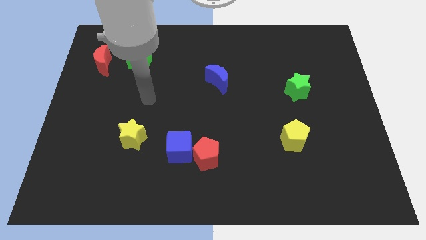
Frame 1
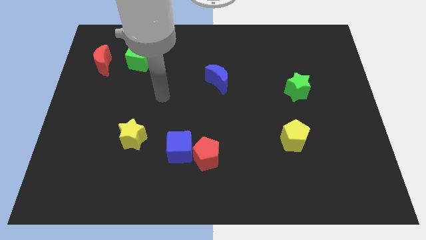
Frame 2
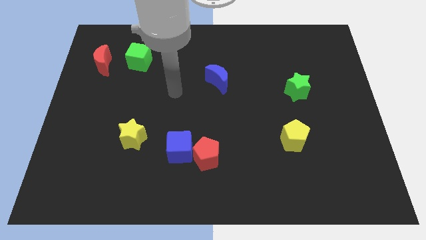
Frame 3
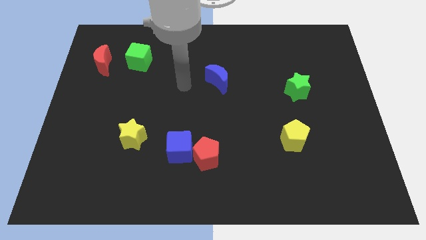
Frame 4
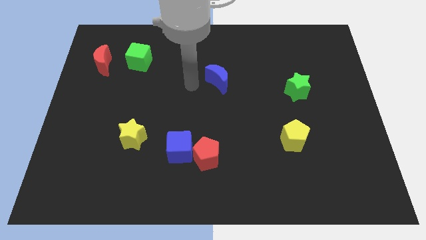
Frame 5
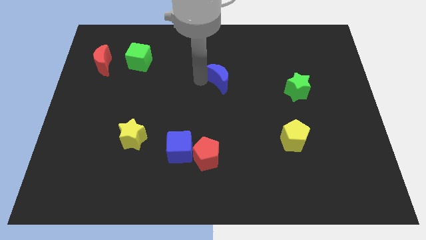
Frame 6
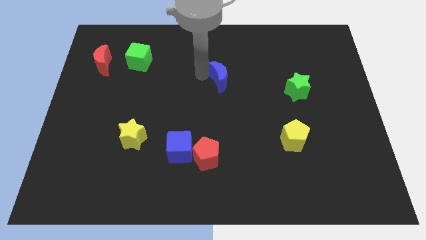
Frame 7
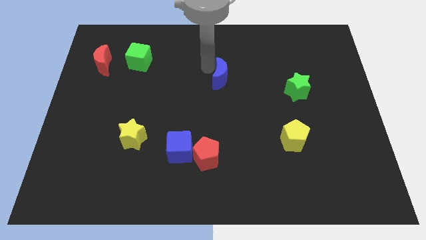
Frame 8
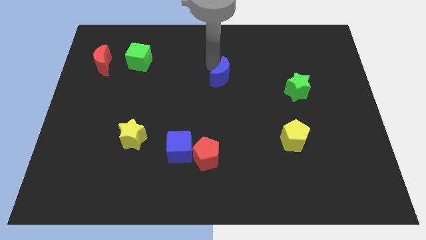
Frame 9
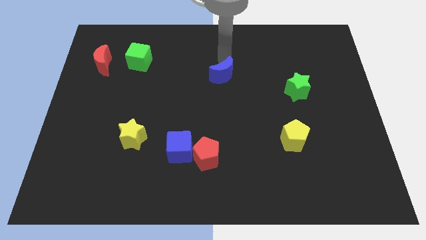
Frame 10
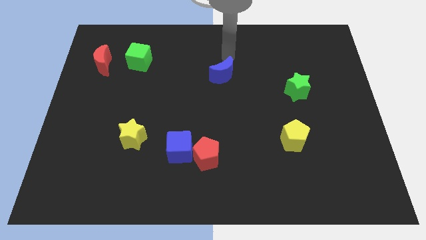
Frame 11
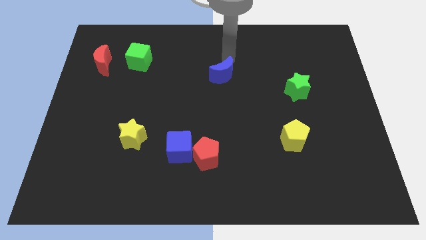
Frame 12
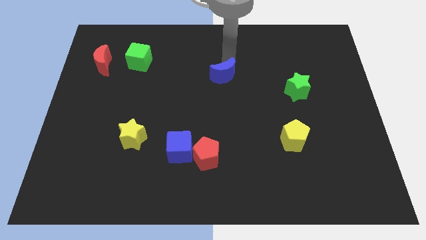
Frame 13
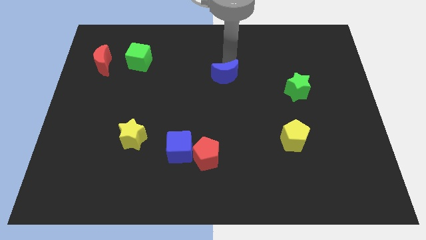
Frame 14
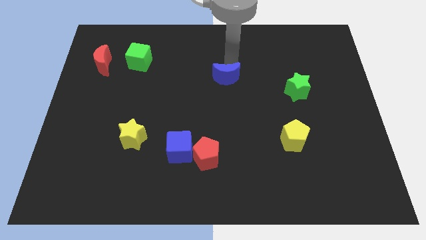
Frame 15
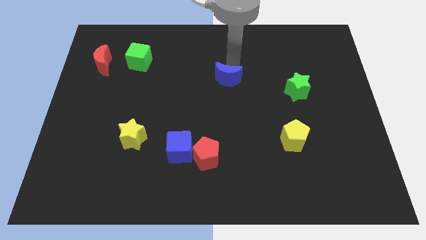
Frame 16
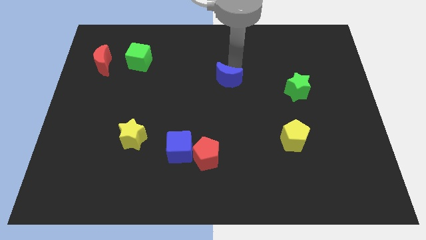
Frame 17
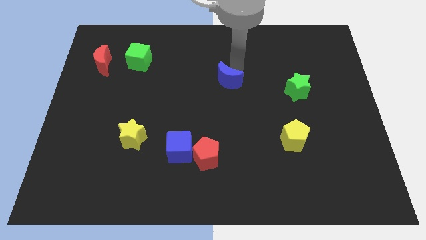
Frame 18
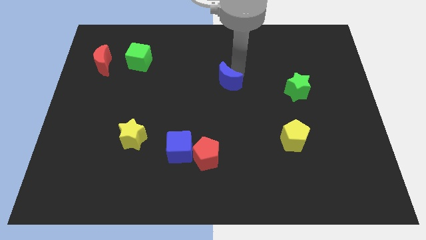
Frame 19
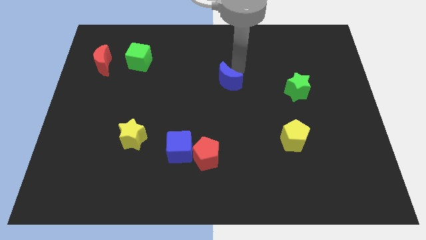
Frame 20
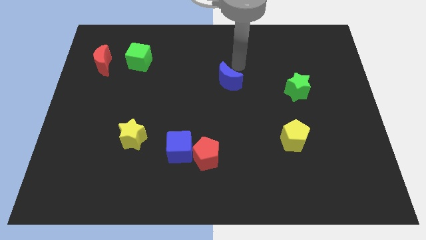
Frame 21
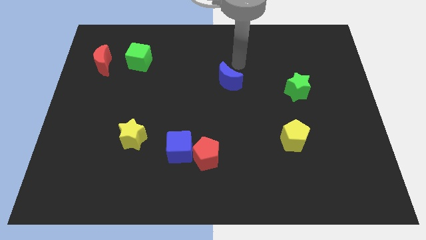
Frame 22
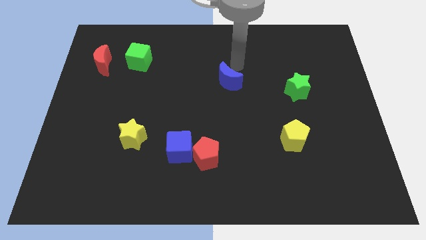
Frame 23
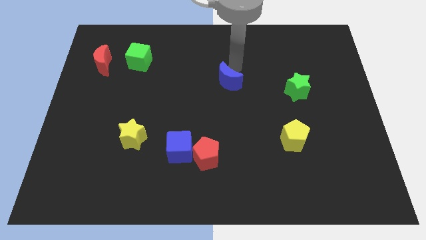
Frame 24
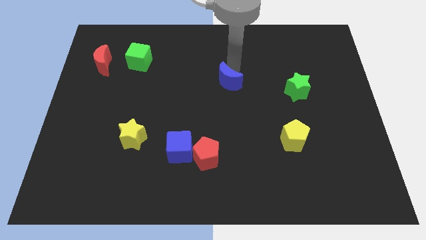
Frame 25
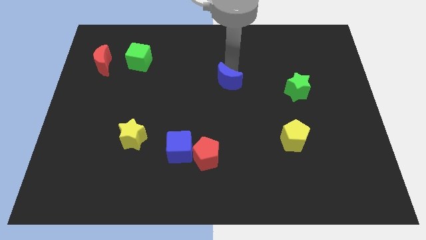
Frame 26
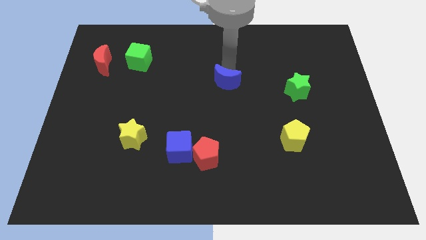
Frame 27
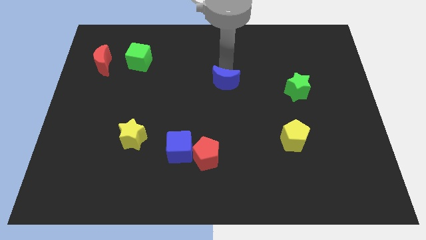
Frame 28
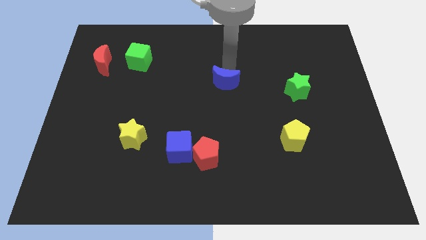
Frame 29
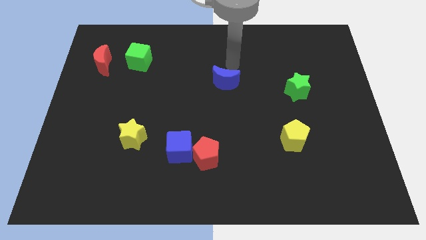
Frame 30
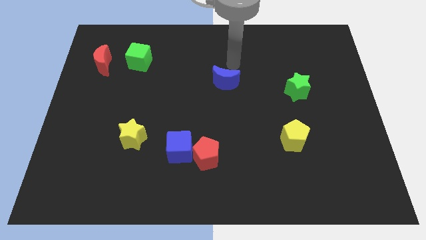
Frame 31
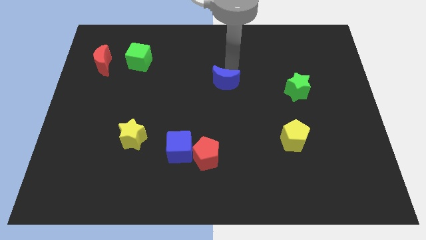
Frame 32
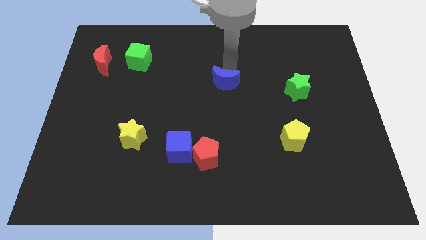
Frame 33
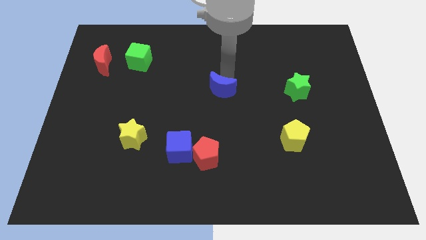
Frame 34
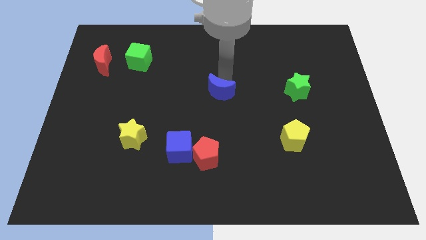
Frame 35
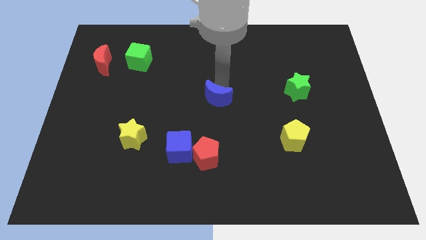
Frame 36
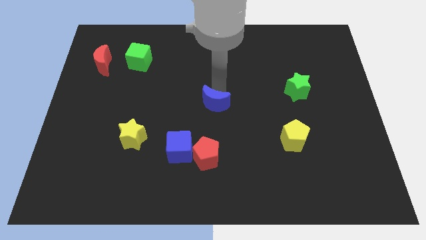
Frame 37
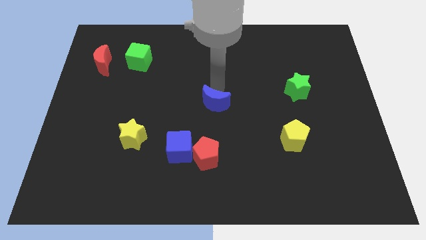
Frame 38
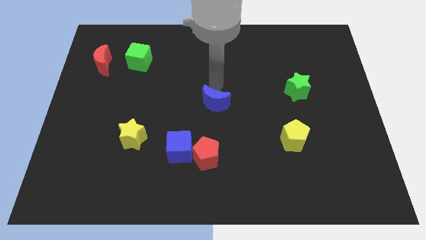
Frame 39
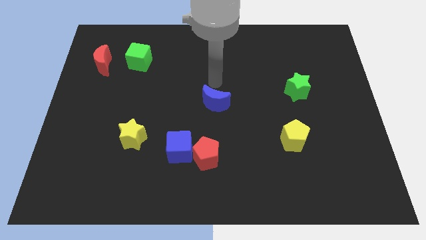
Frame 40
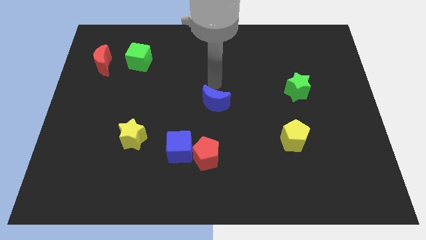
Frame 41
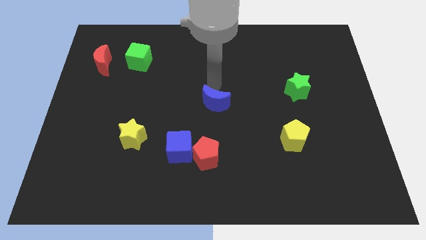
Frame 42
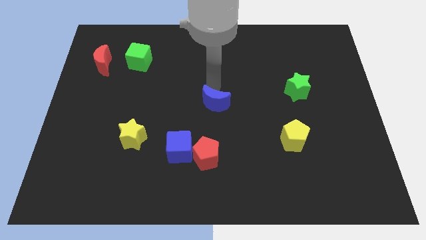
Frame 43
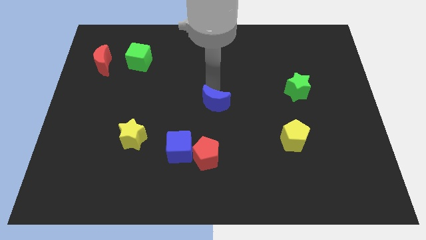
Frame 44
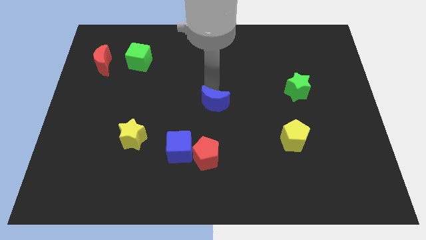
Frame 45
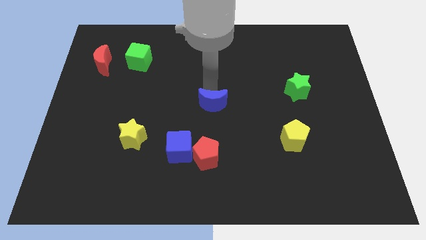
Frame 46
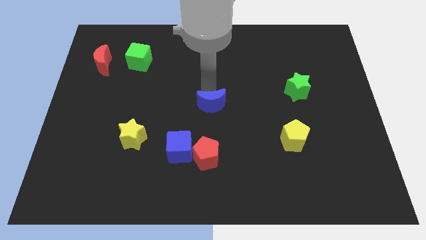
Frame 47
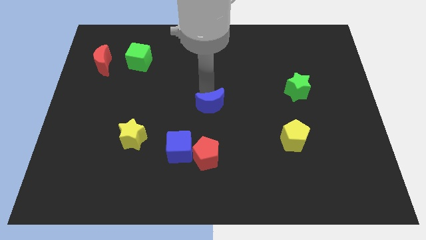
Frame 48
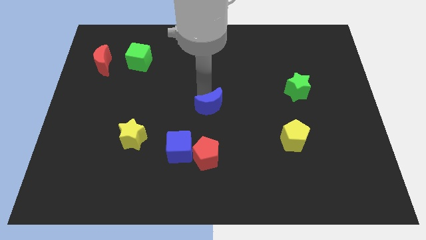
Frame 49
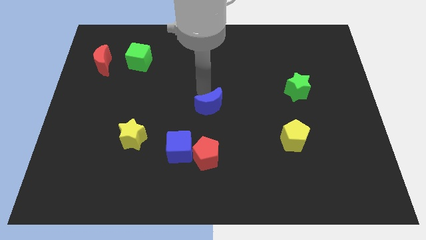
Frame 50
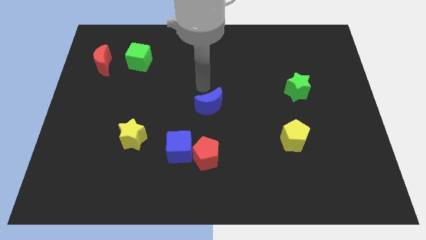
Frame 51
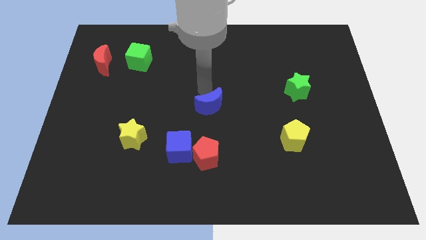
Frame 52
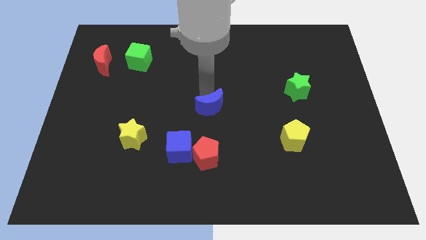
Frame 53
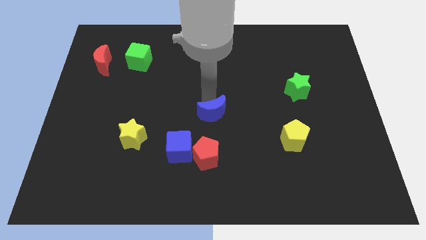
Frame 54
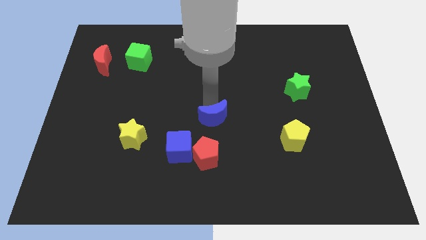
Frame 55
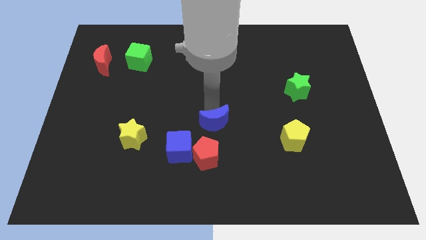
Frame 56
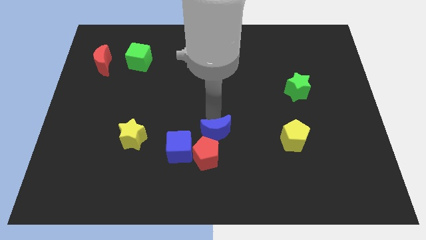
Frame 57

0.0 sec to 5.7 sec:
put the blue moon to the right of the blue cube

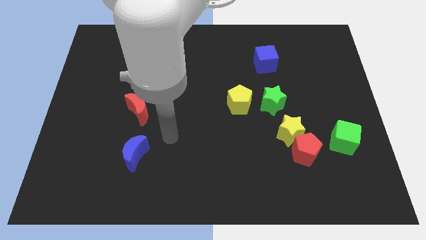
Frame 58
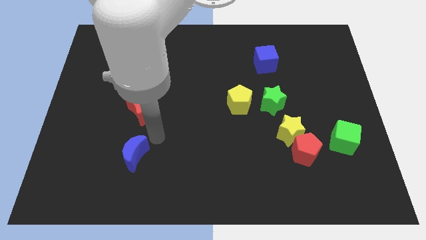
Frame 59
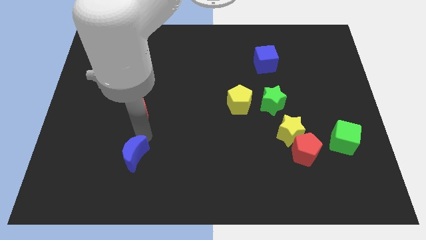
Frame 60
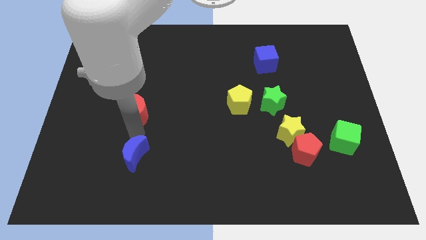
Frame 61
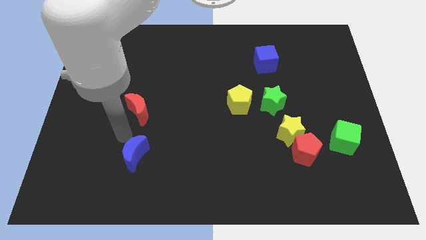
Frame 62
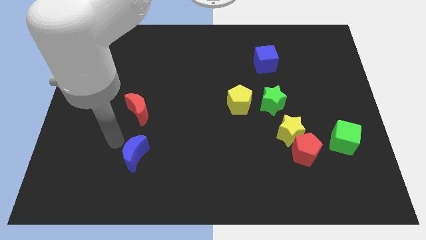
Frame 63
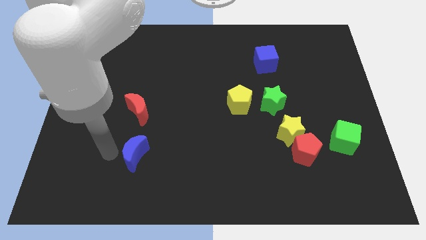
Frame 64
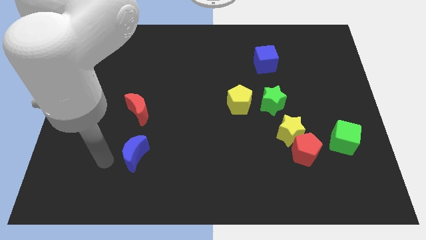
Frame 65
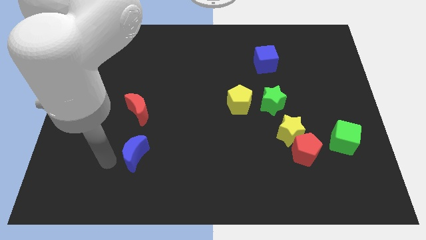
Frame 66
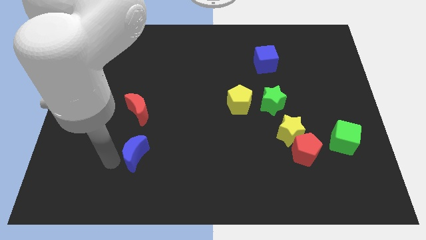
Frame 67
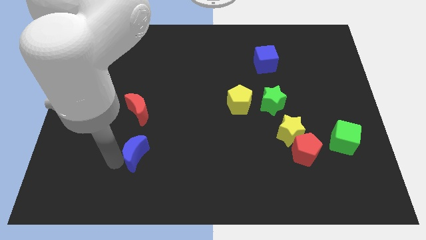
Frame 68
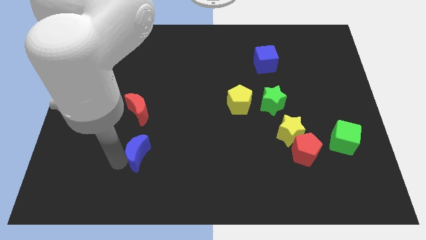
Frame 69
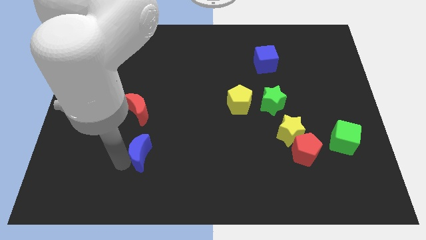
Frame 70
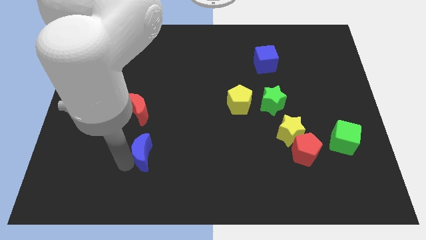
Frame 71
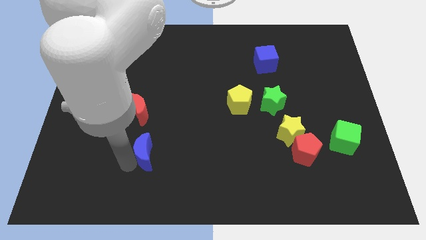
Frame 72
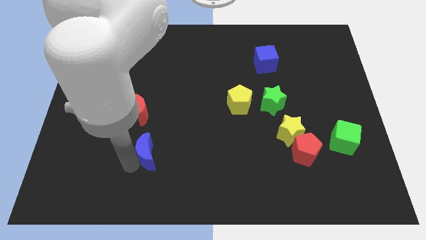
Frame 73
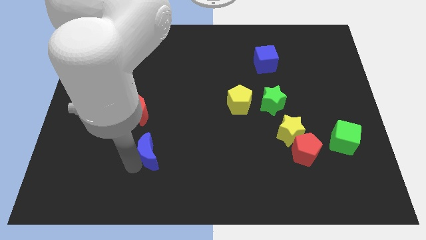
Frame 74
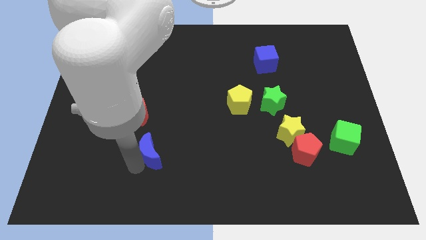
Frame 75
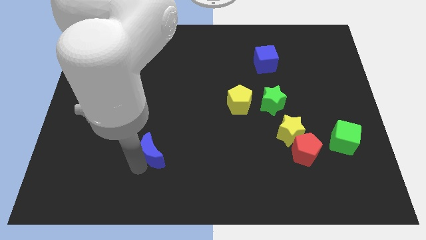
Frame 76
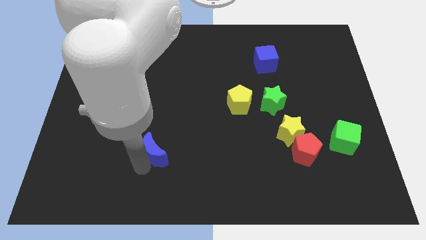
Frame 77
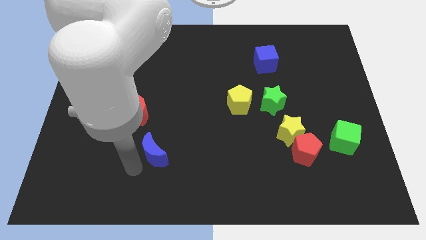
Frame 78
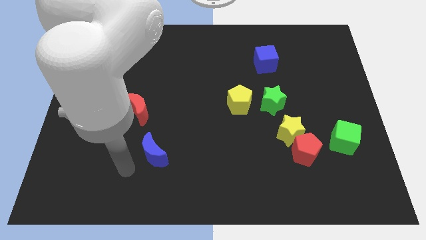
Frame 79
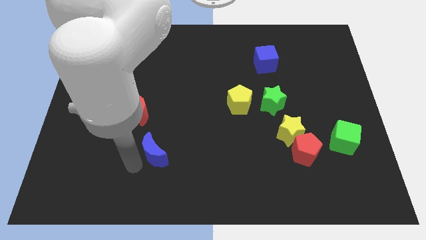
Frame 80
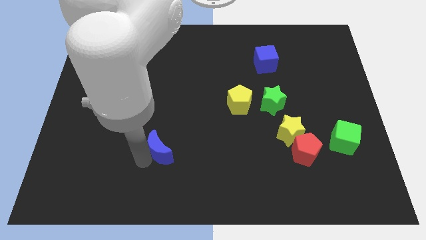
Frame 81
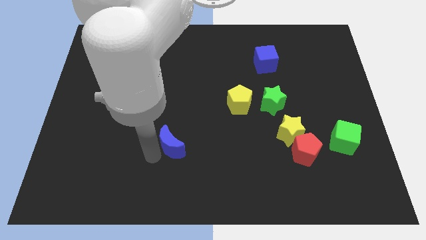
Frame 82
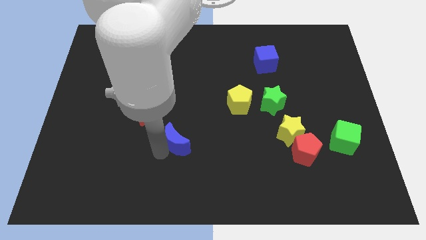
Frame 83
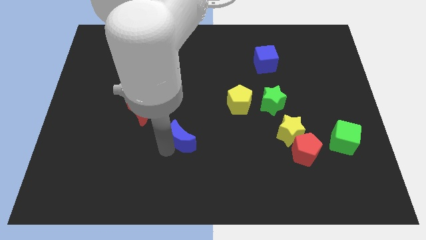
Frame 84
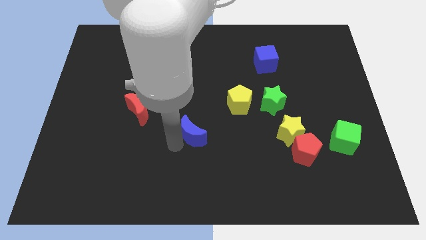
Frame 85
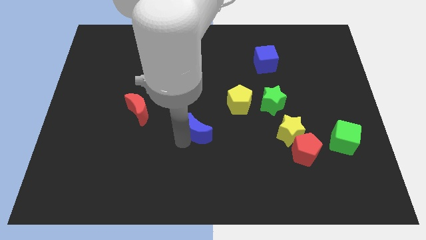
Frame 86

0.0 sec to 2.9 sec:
push the blue moon to the bottom left of the yellow pentagon
